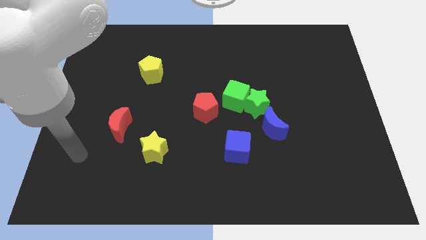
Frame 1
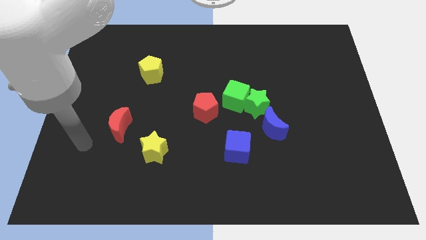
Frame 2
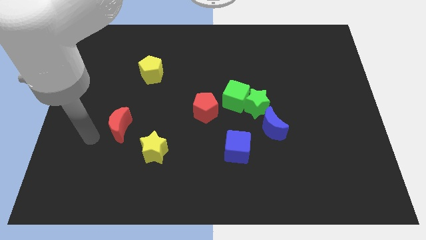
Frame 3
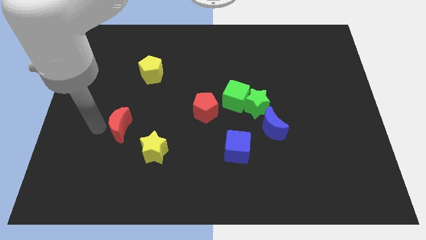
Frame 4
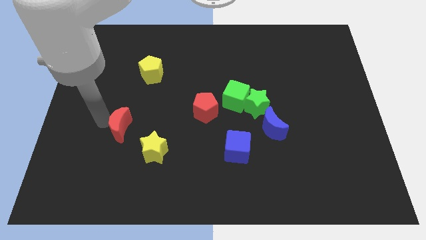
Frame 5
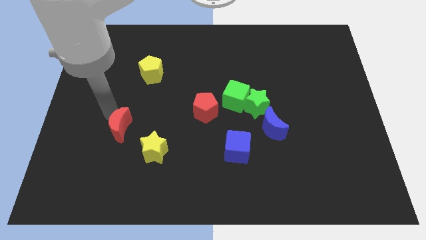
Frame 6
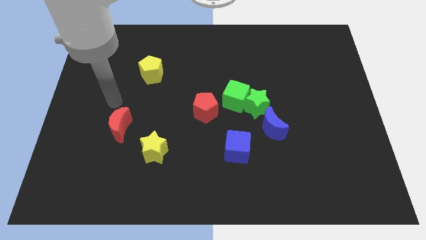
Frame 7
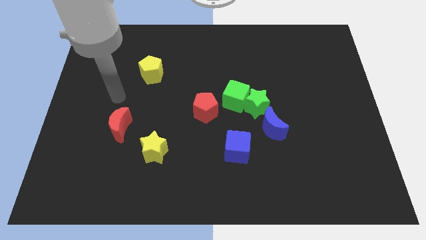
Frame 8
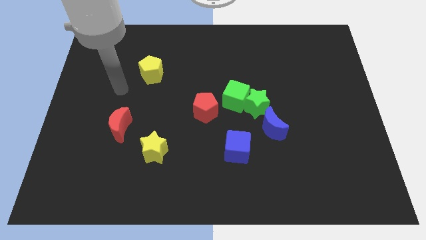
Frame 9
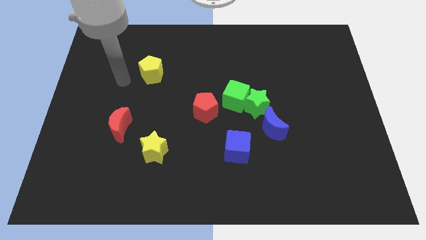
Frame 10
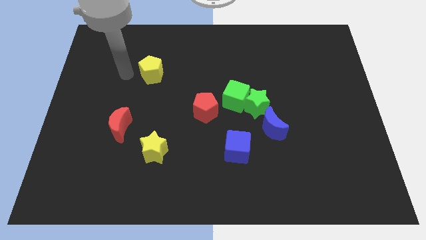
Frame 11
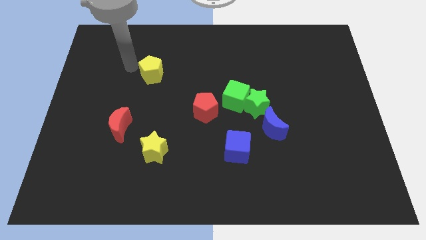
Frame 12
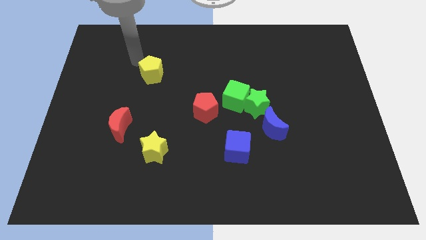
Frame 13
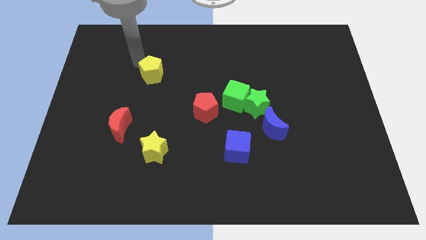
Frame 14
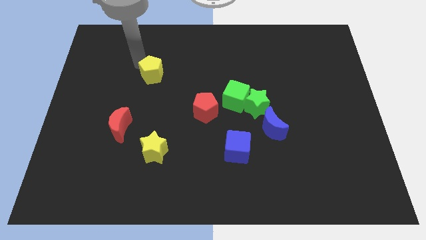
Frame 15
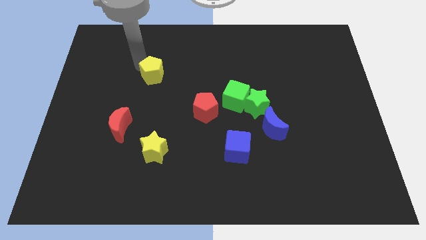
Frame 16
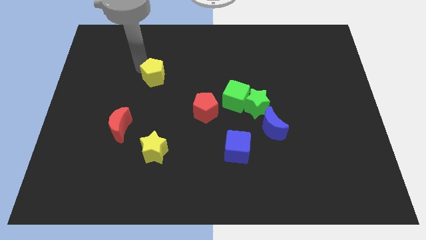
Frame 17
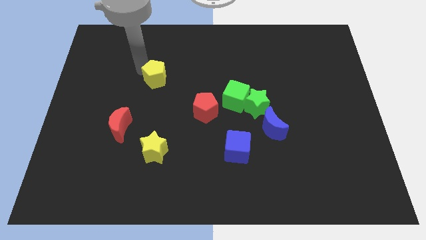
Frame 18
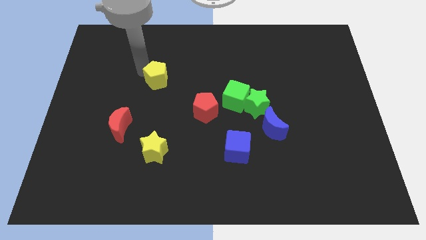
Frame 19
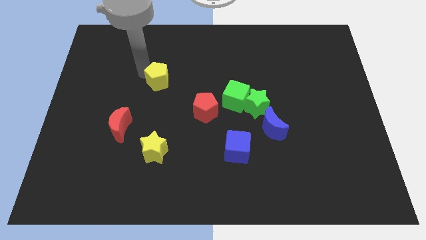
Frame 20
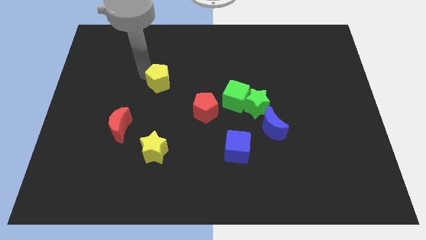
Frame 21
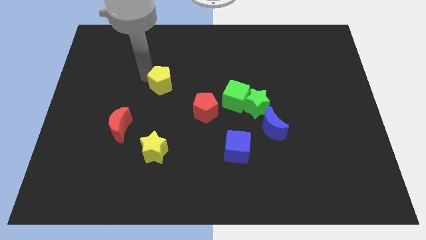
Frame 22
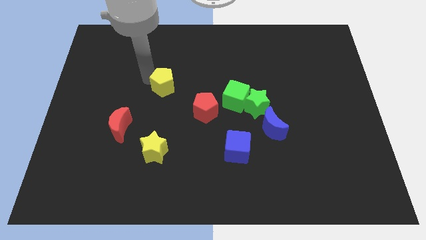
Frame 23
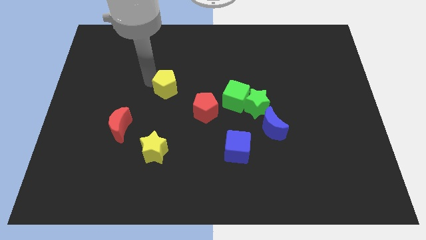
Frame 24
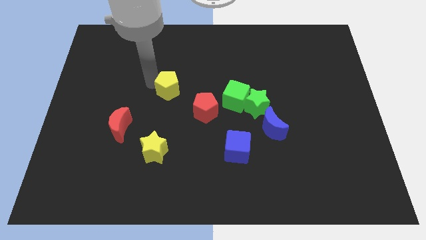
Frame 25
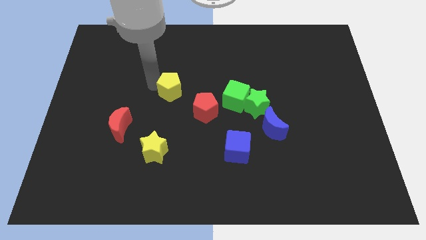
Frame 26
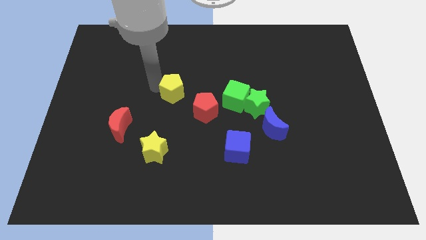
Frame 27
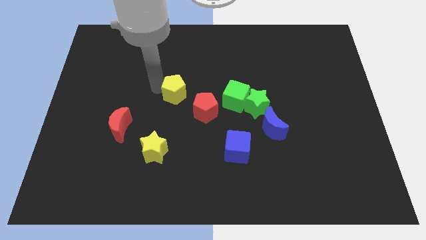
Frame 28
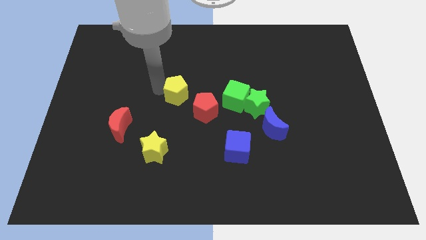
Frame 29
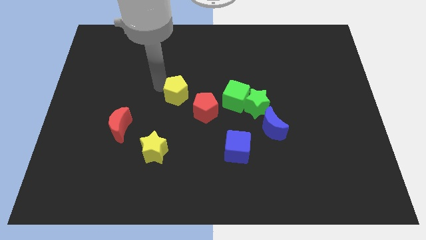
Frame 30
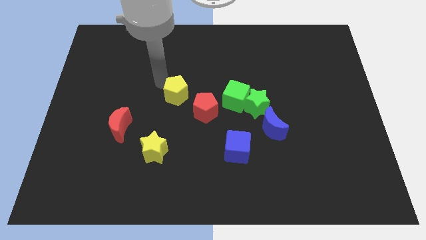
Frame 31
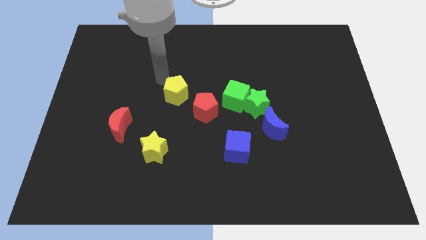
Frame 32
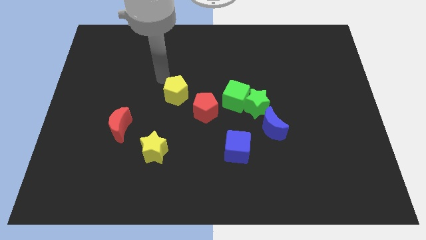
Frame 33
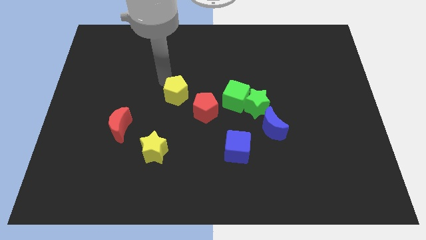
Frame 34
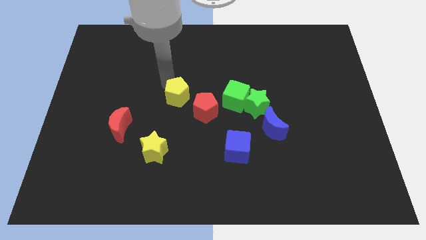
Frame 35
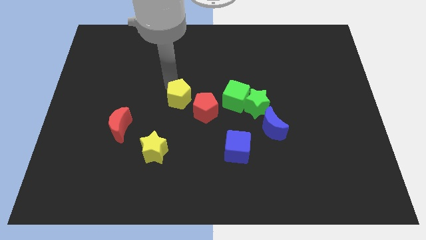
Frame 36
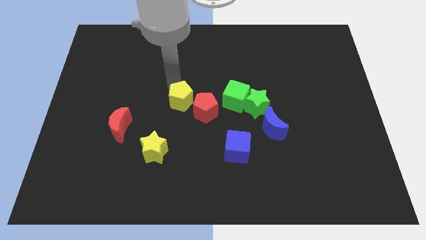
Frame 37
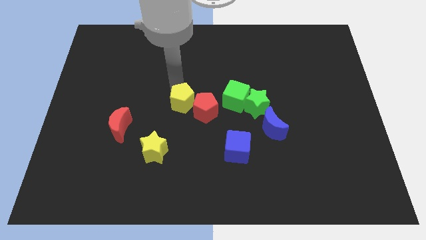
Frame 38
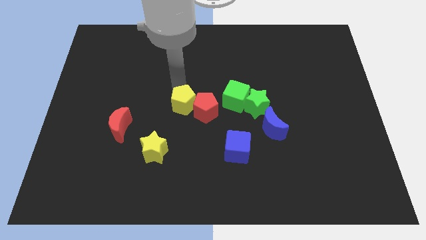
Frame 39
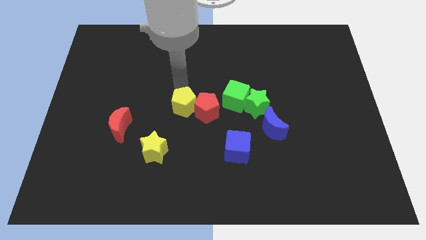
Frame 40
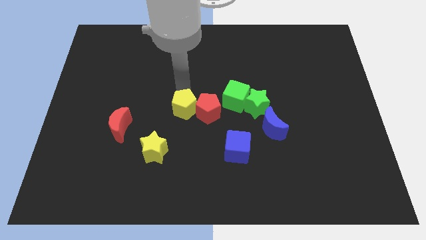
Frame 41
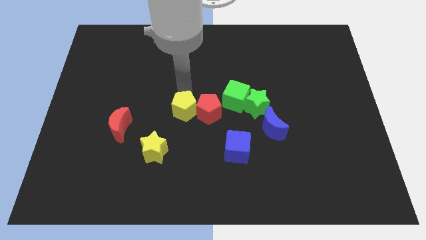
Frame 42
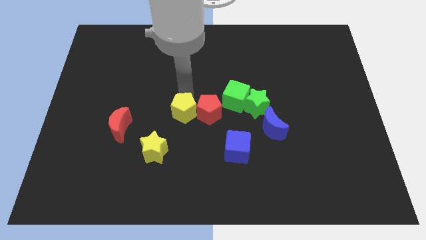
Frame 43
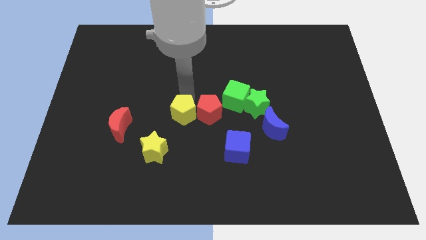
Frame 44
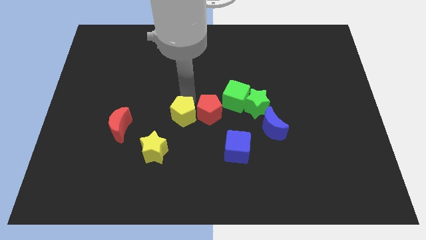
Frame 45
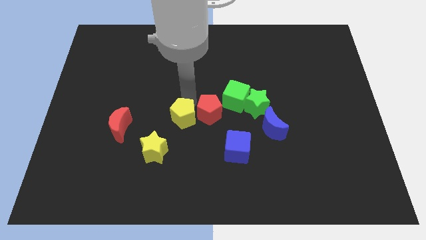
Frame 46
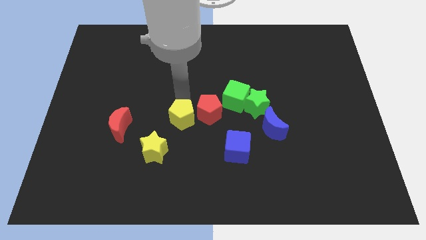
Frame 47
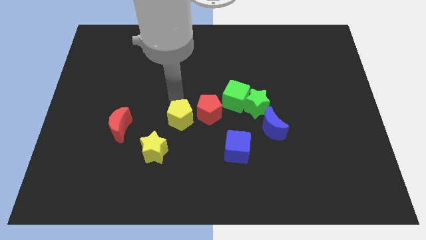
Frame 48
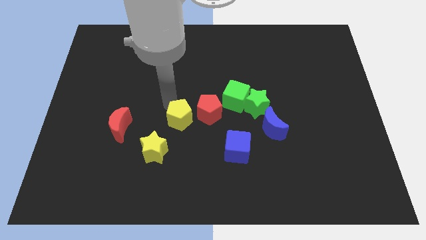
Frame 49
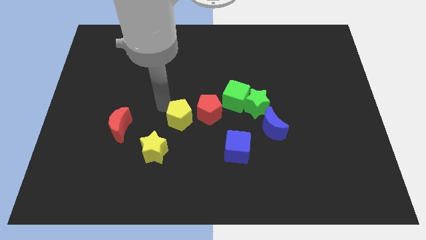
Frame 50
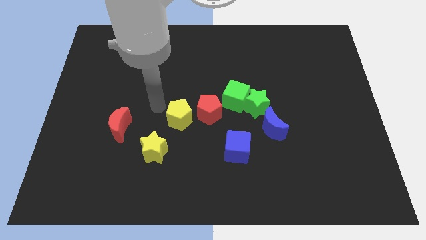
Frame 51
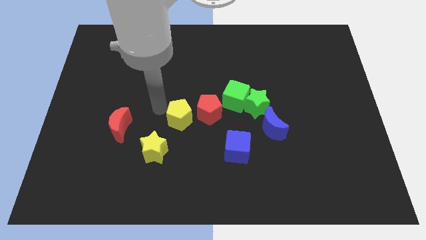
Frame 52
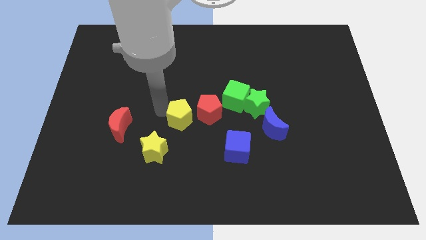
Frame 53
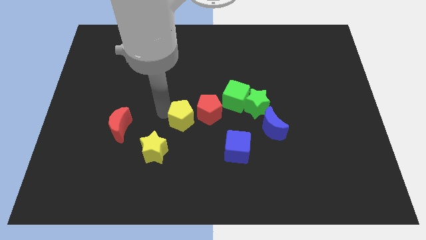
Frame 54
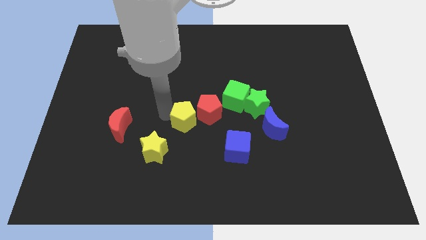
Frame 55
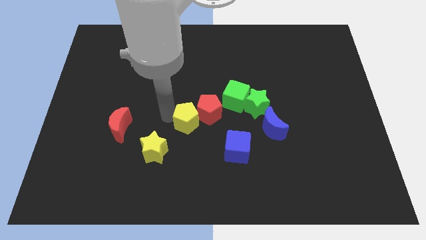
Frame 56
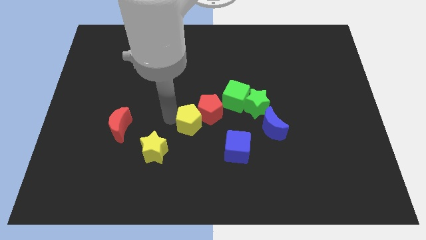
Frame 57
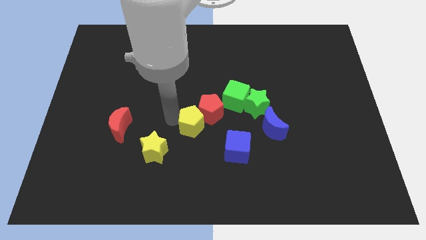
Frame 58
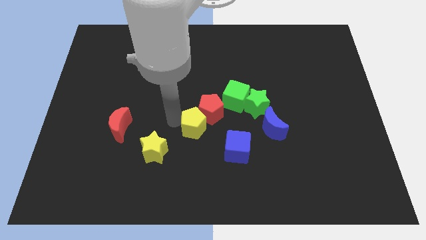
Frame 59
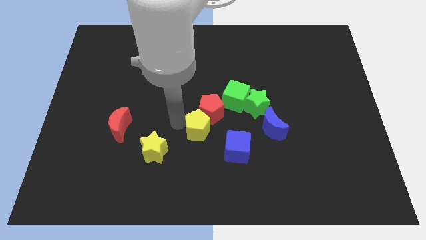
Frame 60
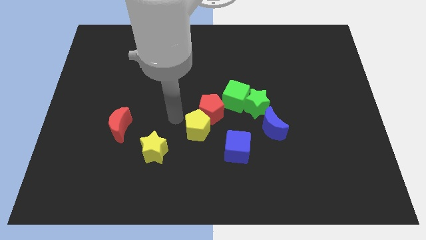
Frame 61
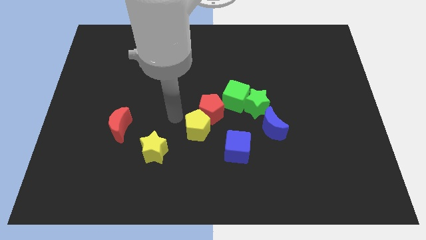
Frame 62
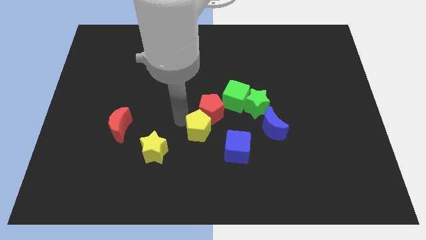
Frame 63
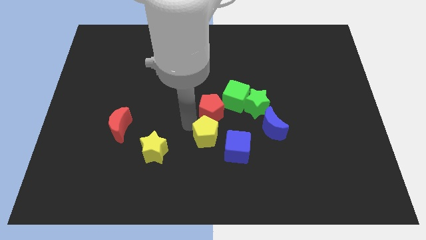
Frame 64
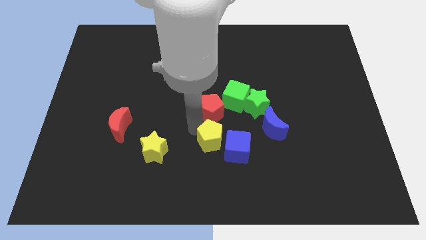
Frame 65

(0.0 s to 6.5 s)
move the yellow pentagon towards the blue cube
